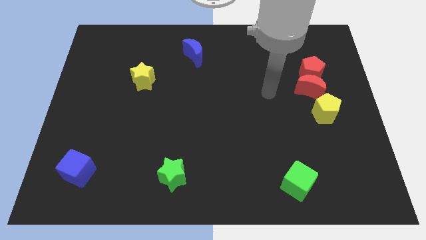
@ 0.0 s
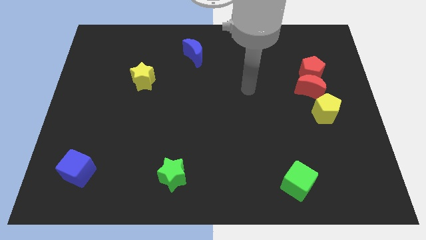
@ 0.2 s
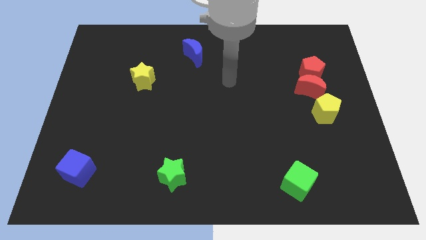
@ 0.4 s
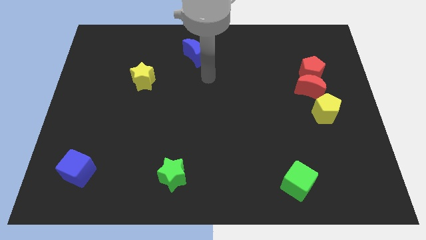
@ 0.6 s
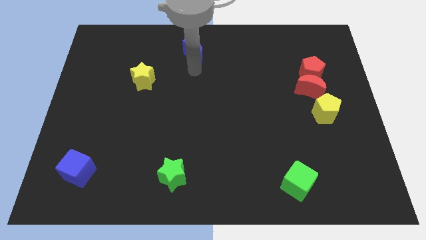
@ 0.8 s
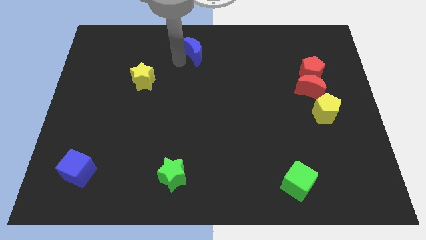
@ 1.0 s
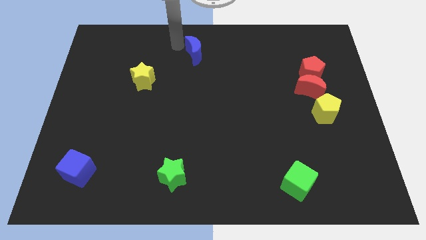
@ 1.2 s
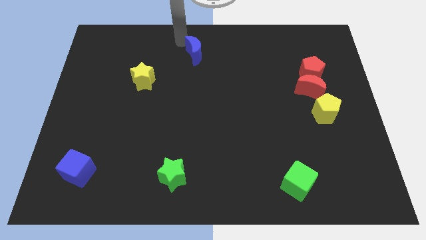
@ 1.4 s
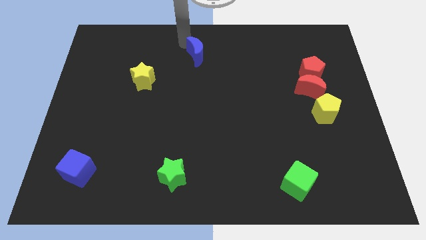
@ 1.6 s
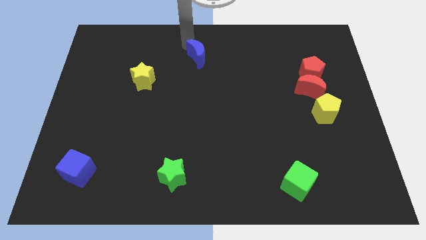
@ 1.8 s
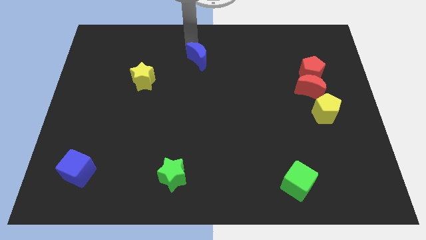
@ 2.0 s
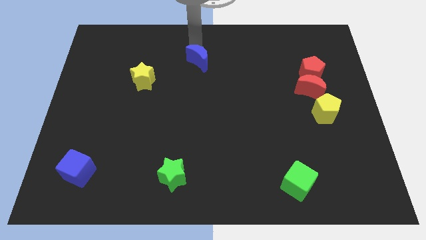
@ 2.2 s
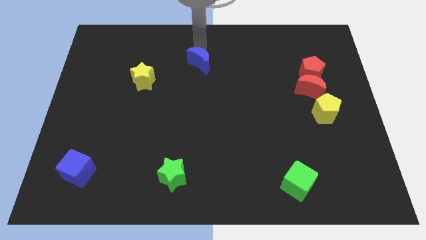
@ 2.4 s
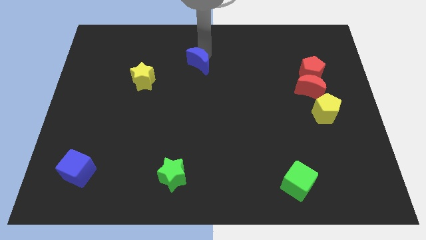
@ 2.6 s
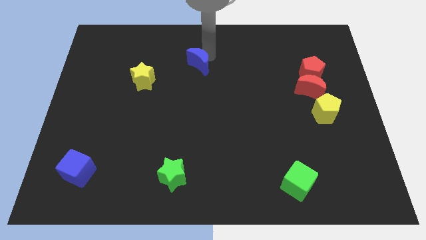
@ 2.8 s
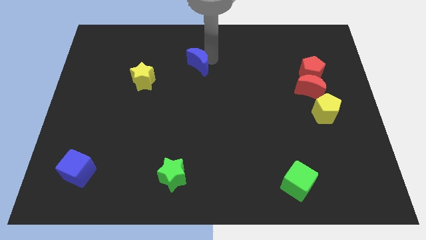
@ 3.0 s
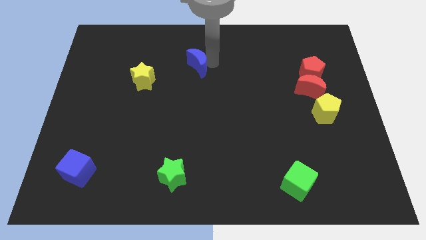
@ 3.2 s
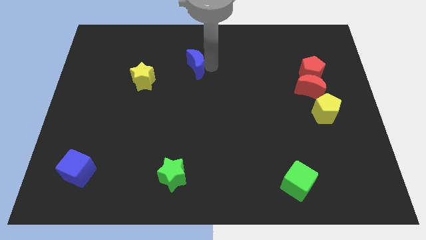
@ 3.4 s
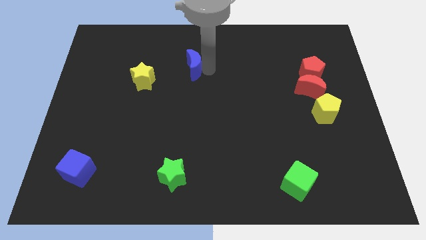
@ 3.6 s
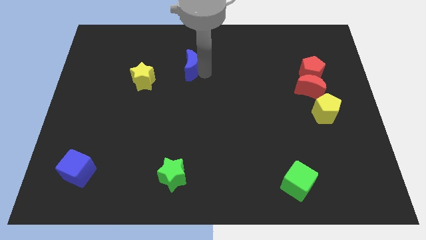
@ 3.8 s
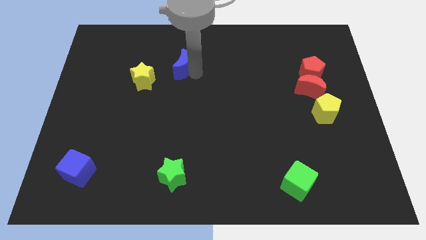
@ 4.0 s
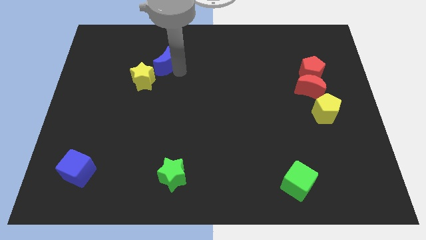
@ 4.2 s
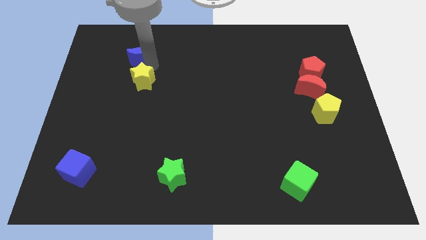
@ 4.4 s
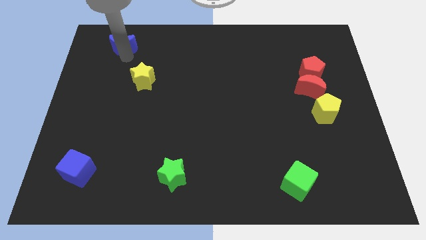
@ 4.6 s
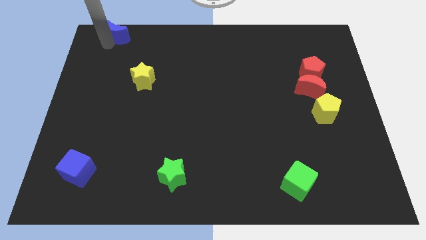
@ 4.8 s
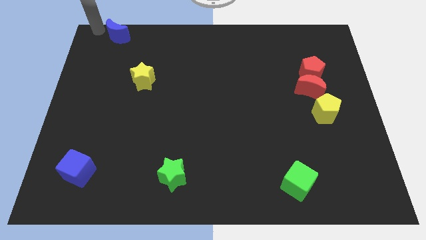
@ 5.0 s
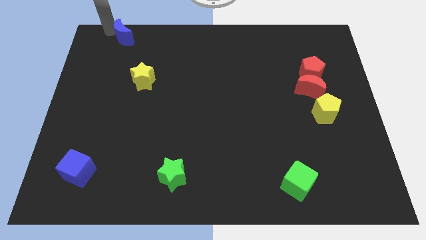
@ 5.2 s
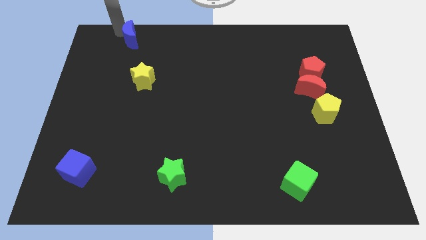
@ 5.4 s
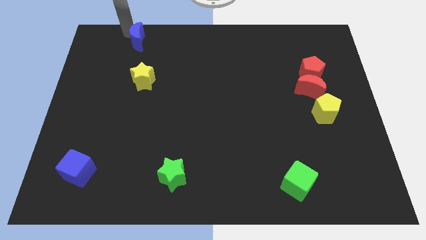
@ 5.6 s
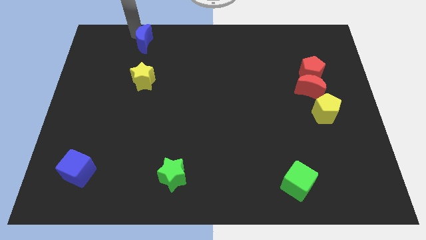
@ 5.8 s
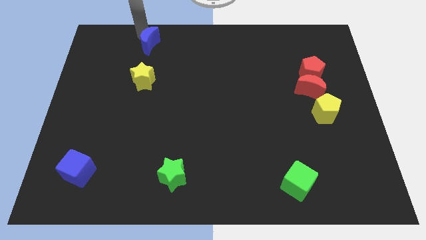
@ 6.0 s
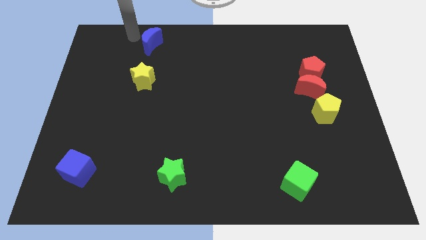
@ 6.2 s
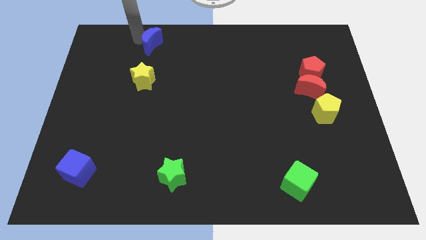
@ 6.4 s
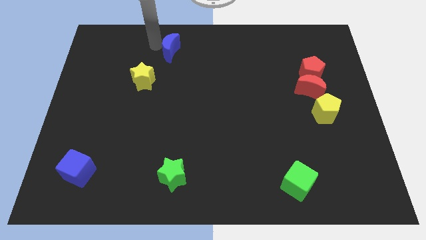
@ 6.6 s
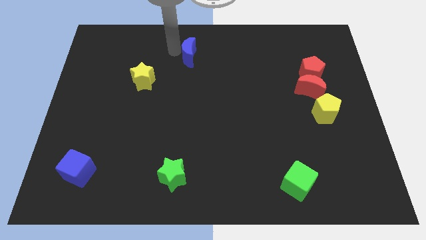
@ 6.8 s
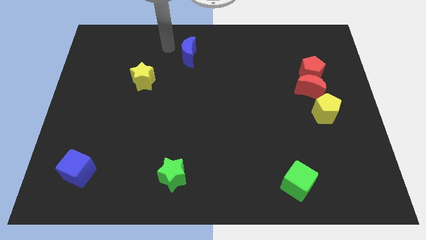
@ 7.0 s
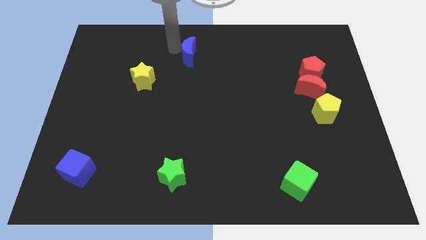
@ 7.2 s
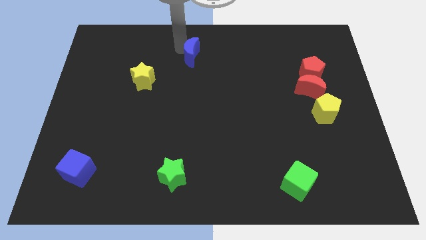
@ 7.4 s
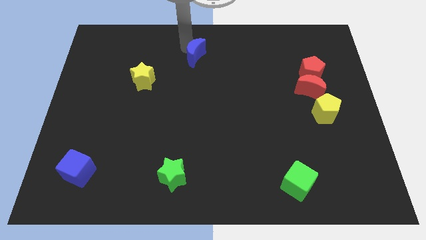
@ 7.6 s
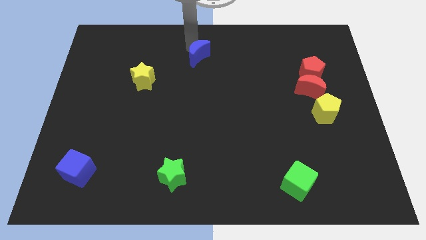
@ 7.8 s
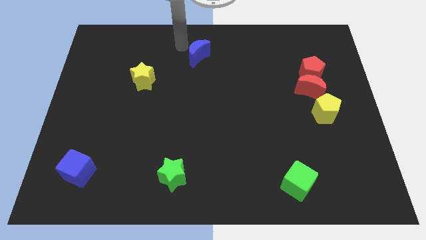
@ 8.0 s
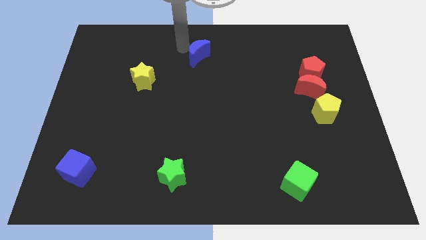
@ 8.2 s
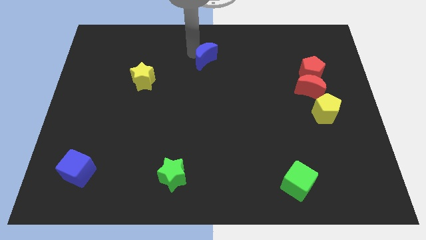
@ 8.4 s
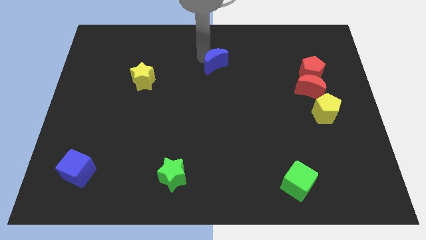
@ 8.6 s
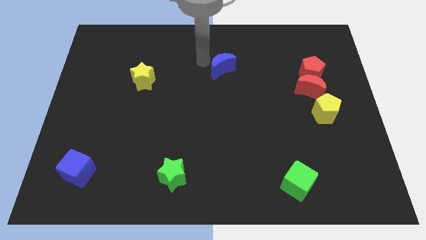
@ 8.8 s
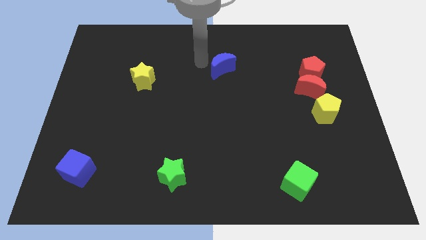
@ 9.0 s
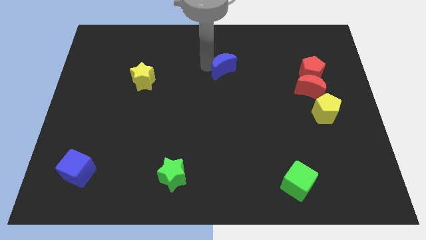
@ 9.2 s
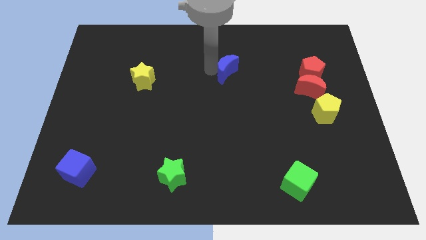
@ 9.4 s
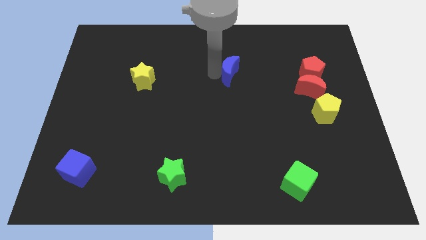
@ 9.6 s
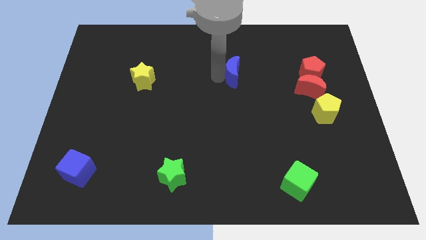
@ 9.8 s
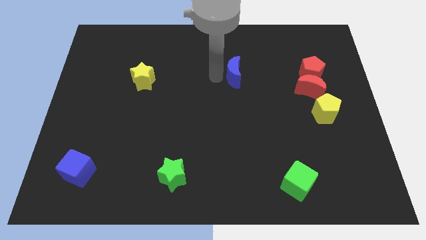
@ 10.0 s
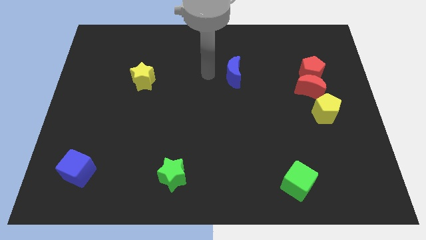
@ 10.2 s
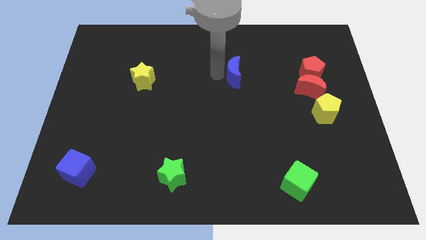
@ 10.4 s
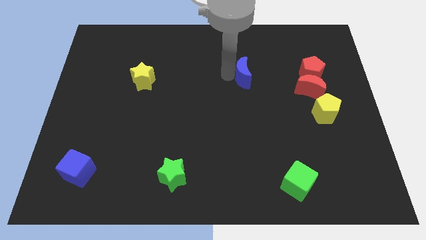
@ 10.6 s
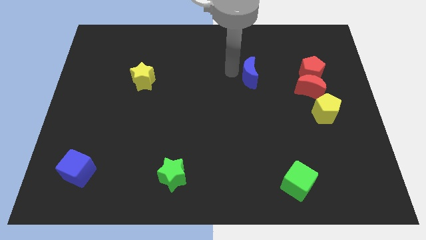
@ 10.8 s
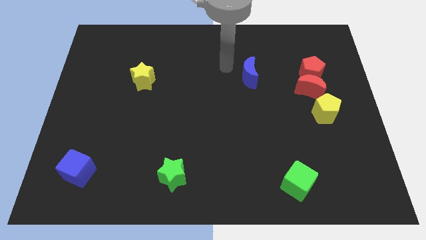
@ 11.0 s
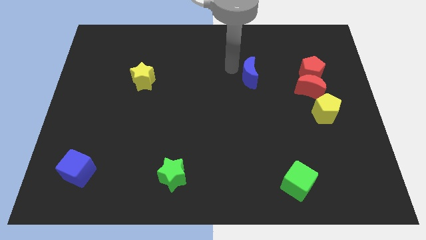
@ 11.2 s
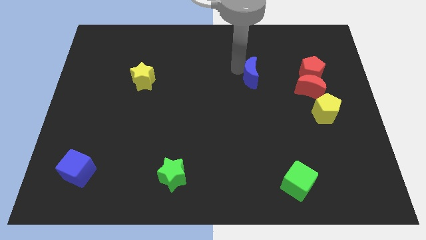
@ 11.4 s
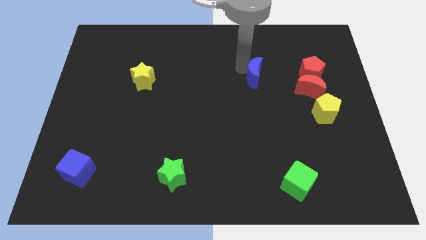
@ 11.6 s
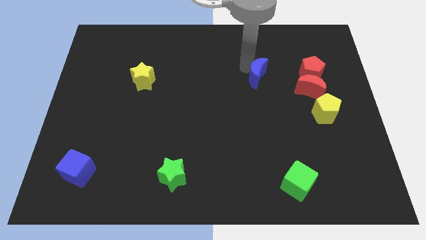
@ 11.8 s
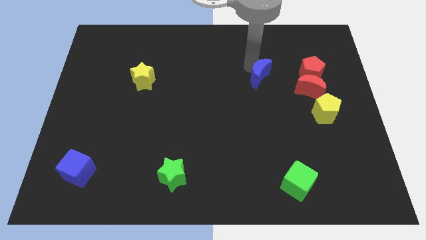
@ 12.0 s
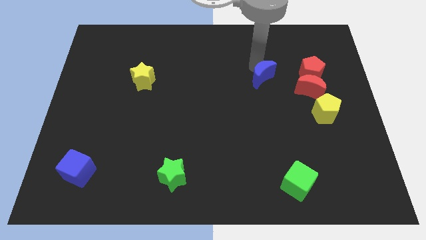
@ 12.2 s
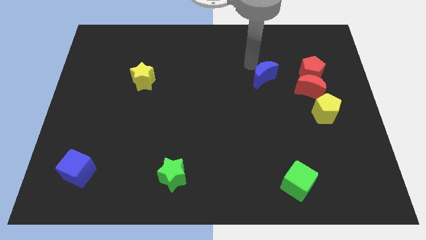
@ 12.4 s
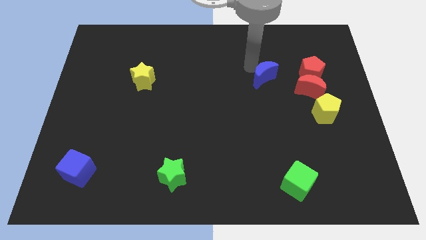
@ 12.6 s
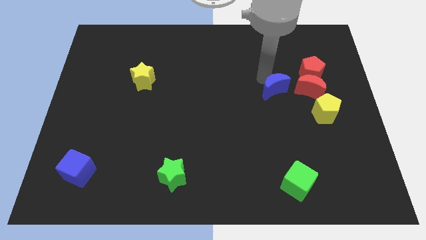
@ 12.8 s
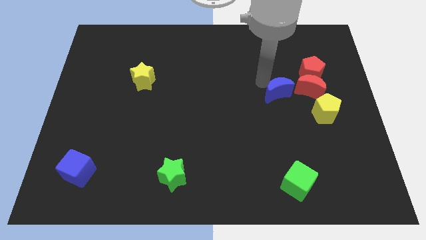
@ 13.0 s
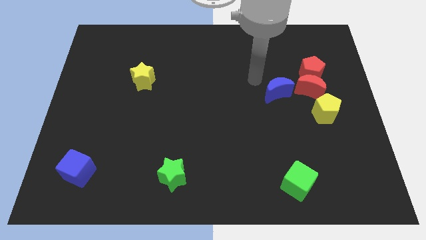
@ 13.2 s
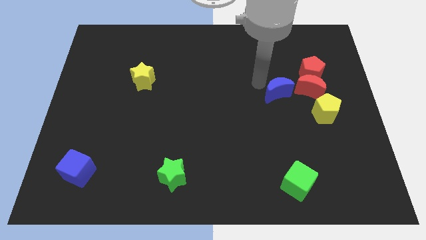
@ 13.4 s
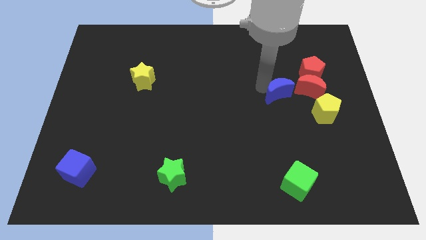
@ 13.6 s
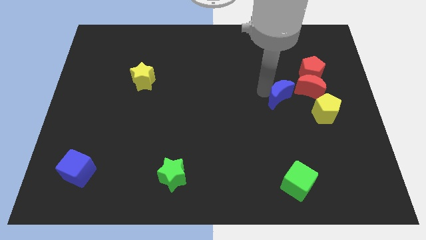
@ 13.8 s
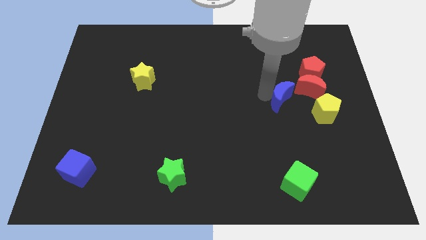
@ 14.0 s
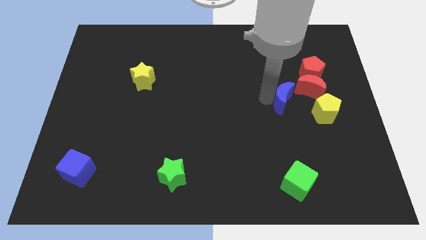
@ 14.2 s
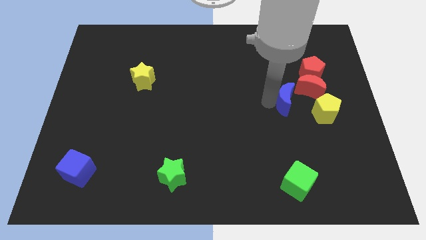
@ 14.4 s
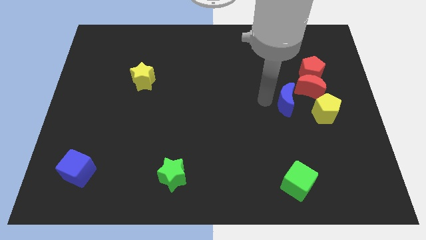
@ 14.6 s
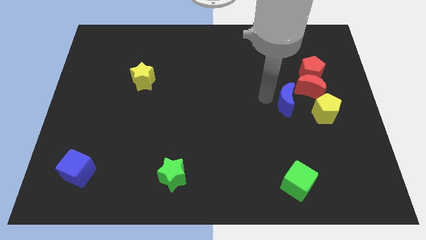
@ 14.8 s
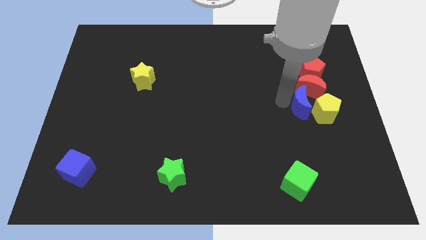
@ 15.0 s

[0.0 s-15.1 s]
move the blue moon to the yellow pentagon
